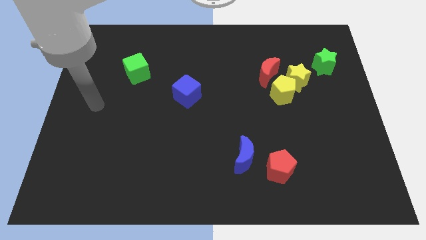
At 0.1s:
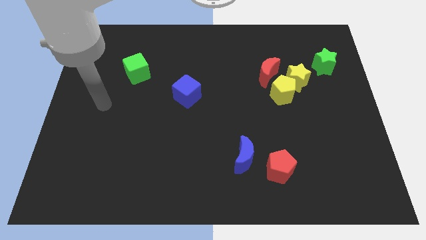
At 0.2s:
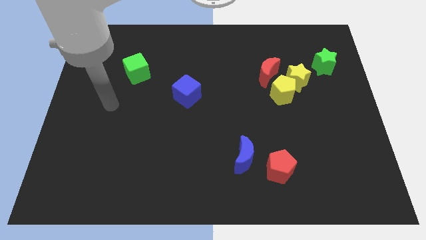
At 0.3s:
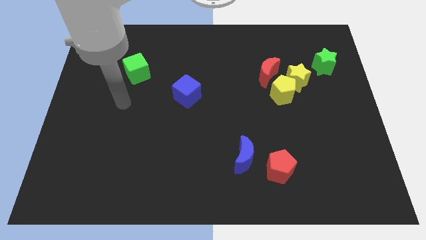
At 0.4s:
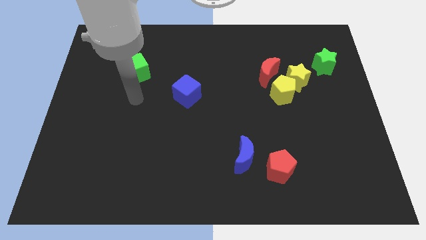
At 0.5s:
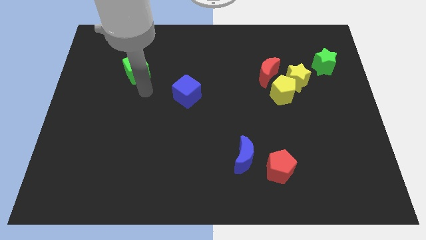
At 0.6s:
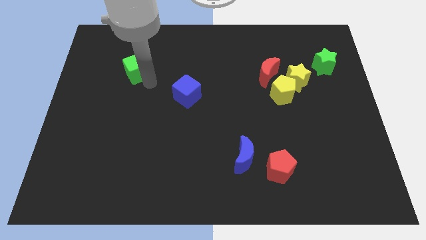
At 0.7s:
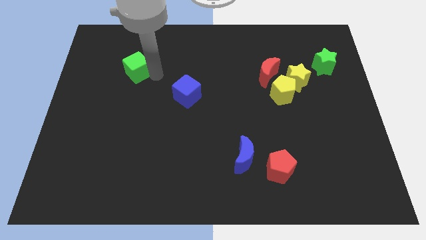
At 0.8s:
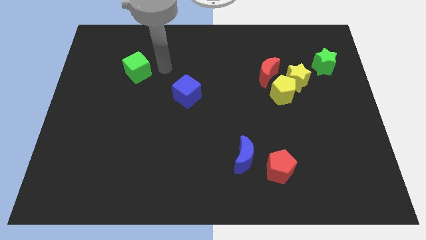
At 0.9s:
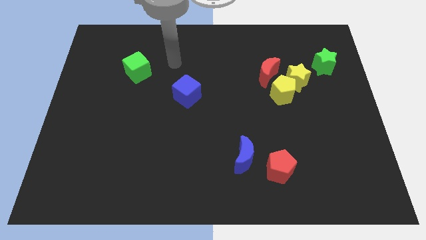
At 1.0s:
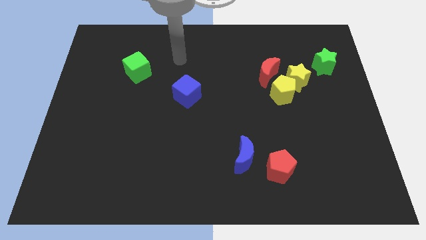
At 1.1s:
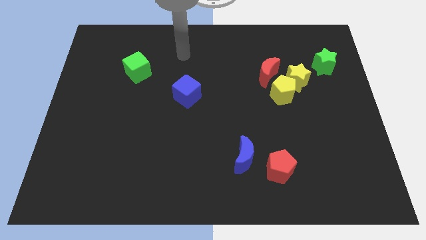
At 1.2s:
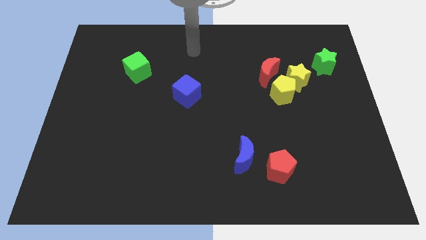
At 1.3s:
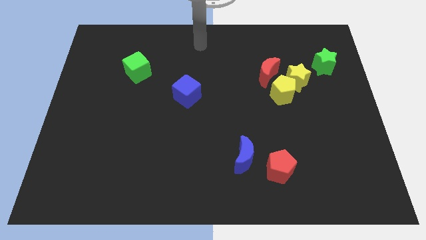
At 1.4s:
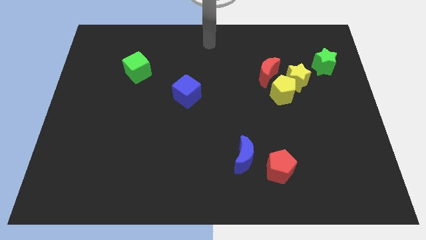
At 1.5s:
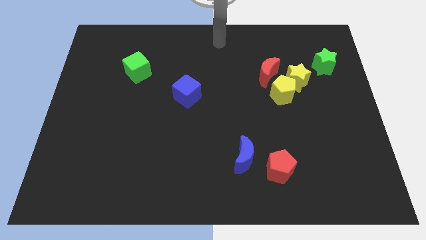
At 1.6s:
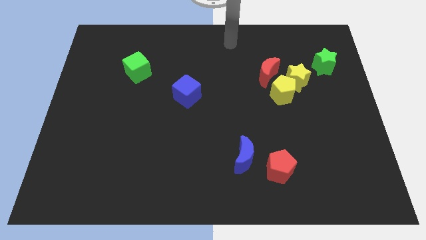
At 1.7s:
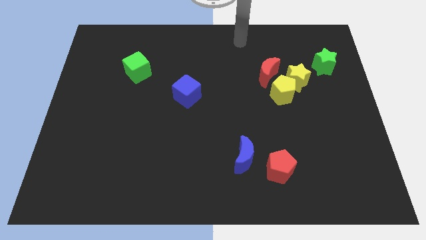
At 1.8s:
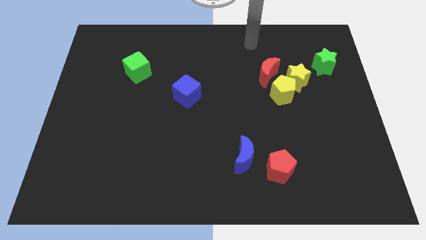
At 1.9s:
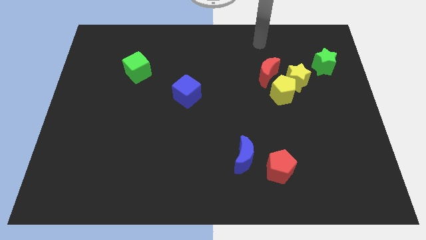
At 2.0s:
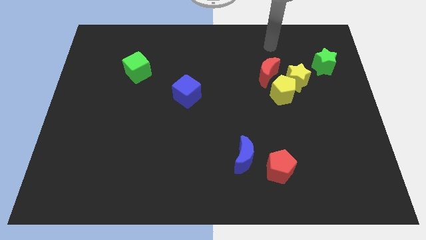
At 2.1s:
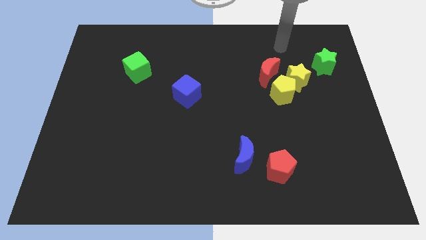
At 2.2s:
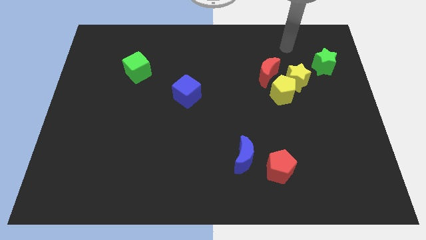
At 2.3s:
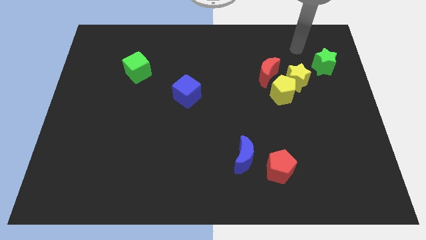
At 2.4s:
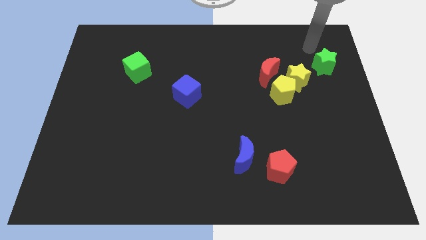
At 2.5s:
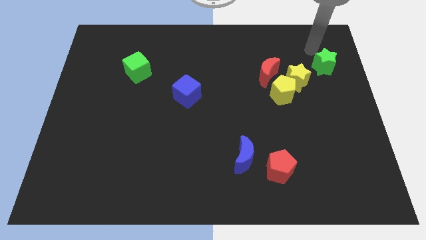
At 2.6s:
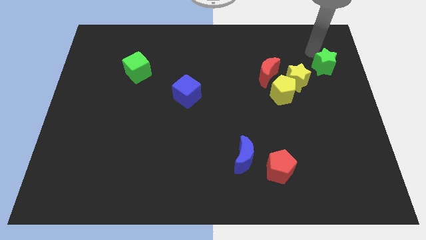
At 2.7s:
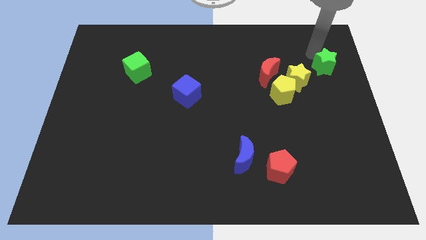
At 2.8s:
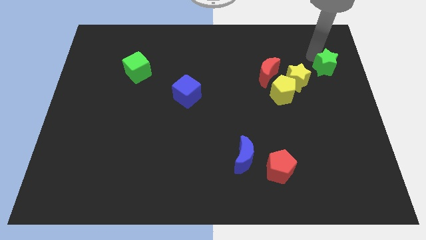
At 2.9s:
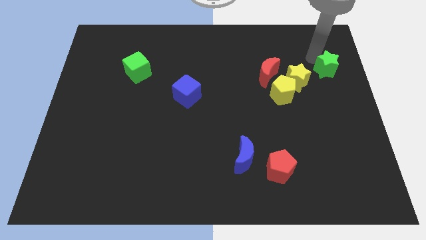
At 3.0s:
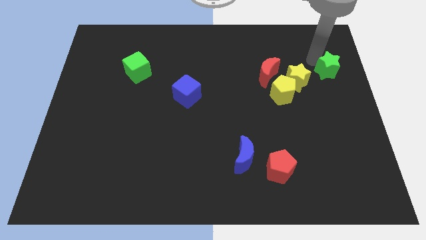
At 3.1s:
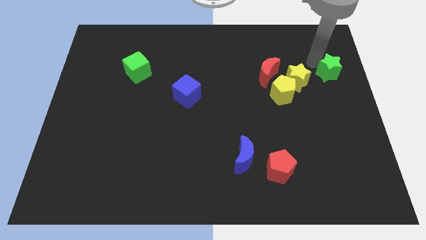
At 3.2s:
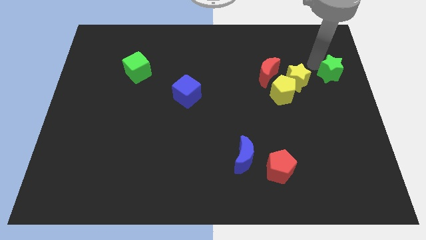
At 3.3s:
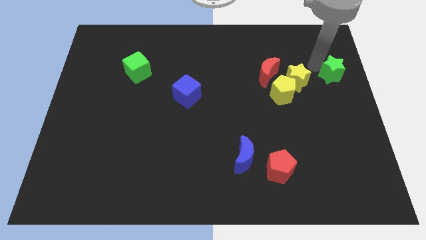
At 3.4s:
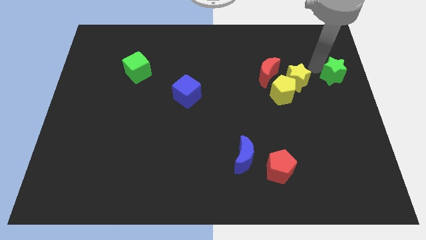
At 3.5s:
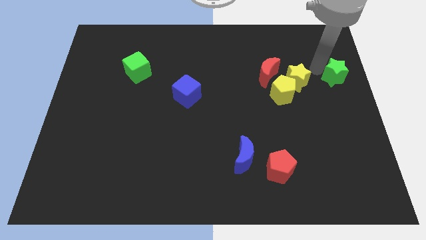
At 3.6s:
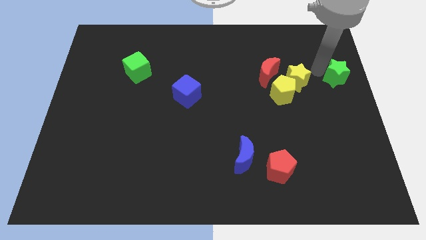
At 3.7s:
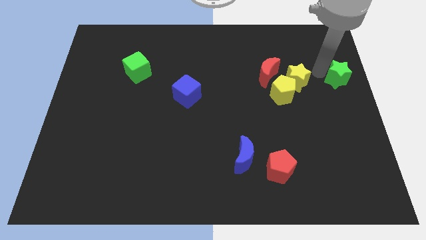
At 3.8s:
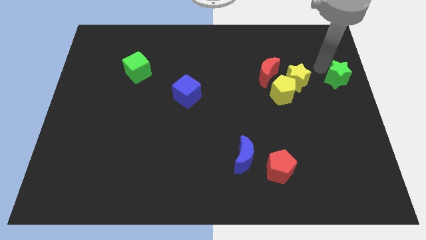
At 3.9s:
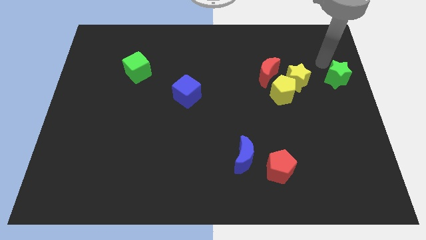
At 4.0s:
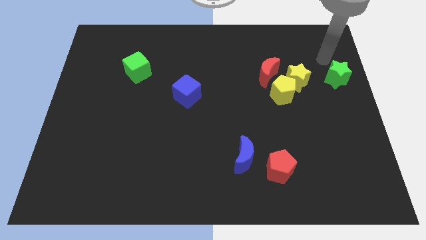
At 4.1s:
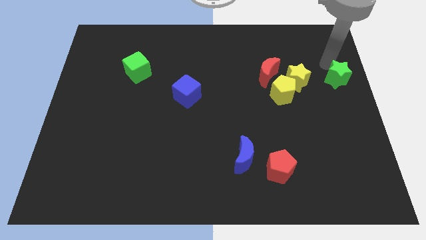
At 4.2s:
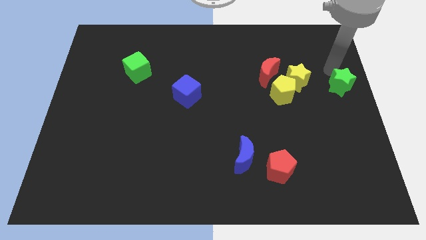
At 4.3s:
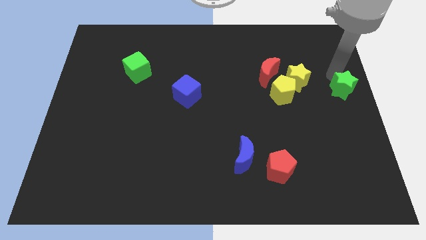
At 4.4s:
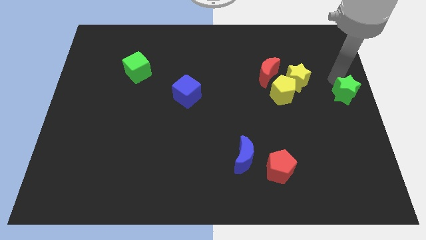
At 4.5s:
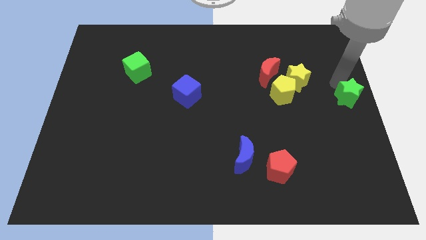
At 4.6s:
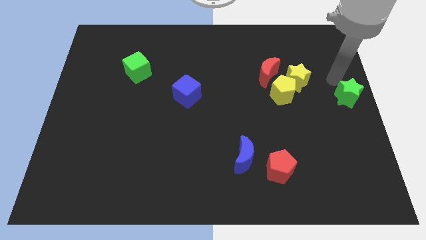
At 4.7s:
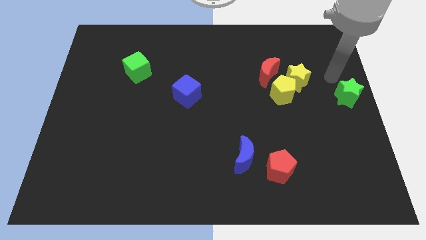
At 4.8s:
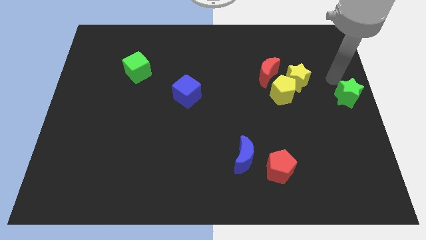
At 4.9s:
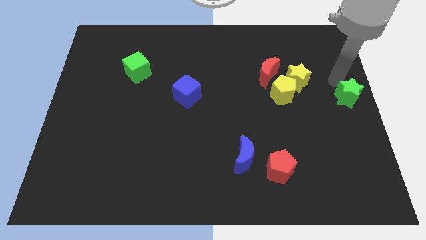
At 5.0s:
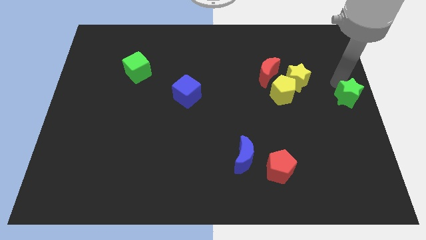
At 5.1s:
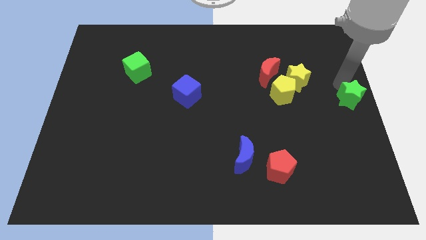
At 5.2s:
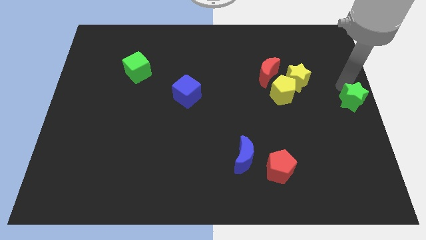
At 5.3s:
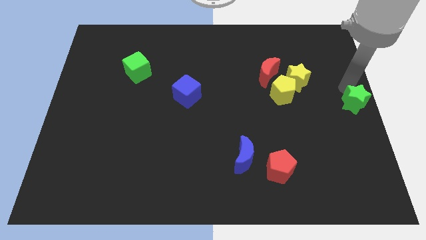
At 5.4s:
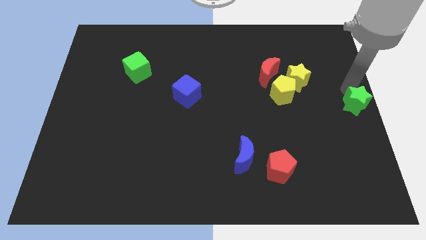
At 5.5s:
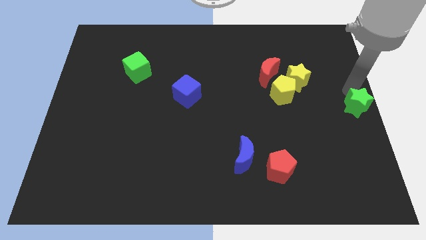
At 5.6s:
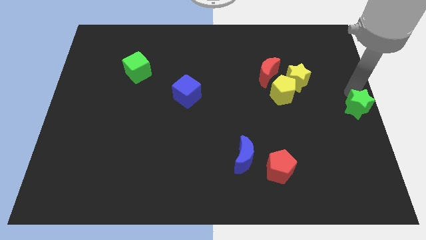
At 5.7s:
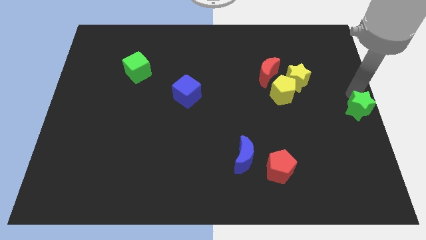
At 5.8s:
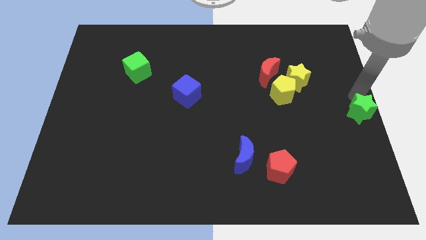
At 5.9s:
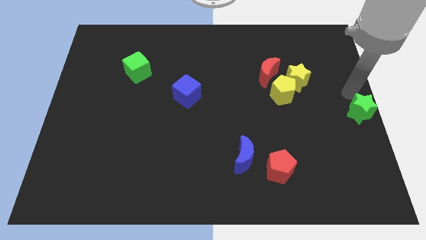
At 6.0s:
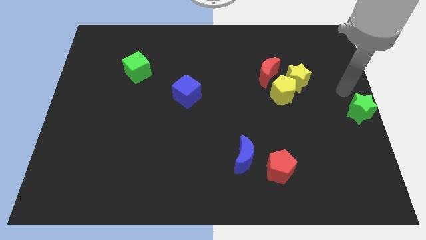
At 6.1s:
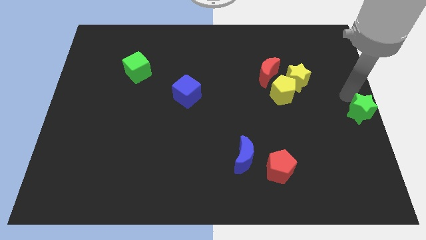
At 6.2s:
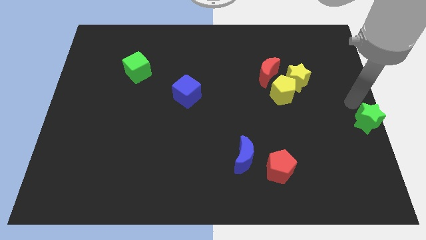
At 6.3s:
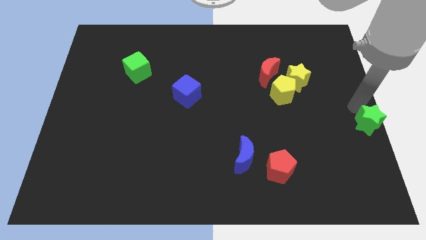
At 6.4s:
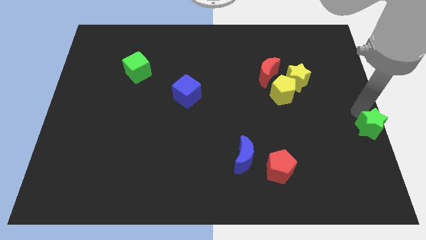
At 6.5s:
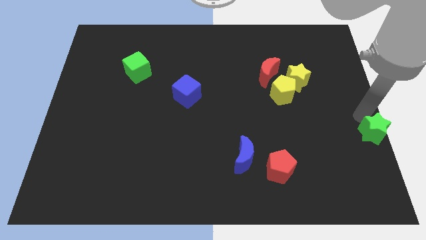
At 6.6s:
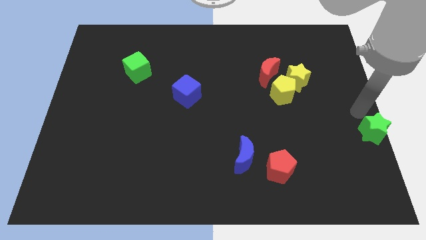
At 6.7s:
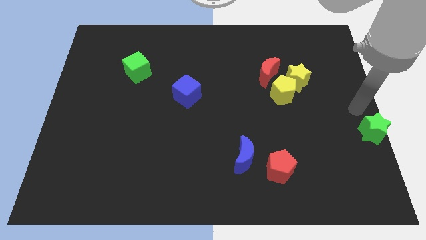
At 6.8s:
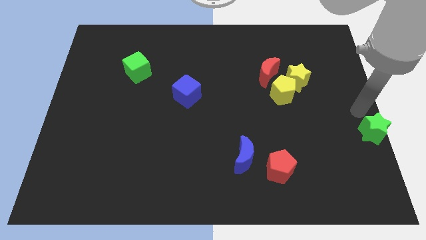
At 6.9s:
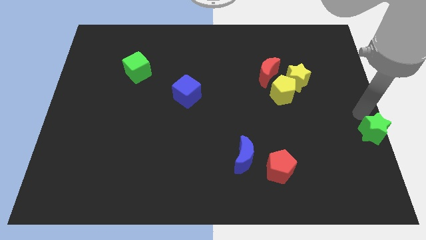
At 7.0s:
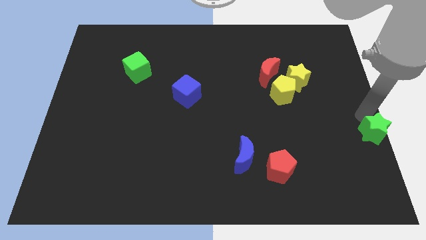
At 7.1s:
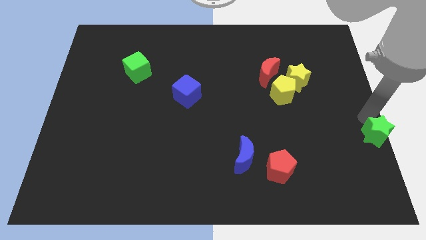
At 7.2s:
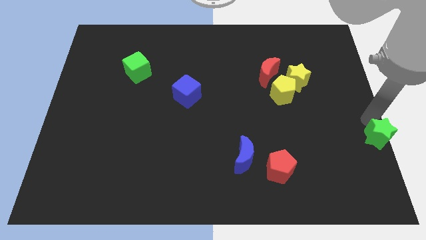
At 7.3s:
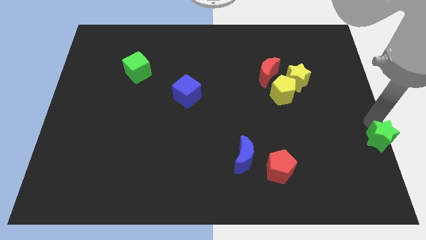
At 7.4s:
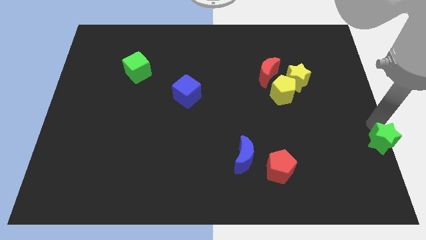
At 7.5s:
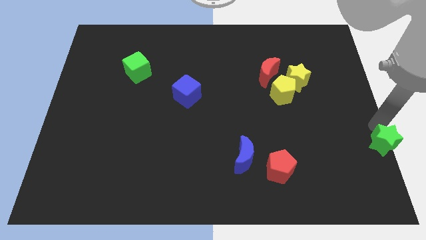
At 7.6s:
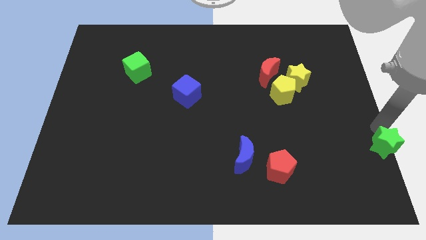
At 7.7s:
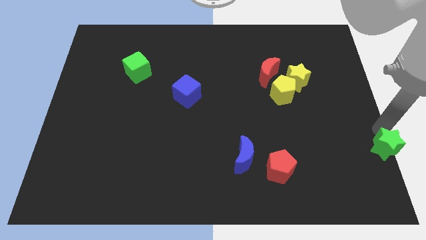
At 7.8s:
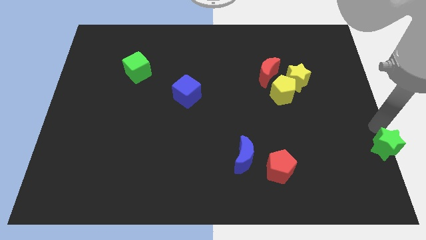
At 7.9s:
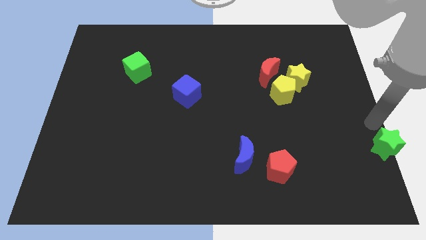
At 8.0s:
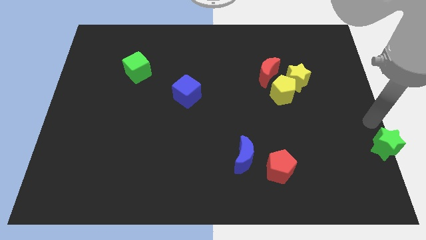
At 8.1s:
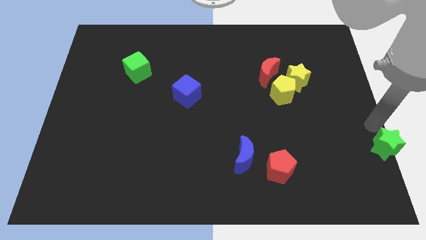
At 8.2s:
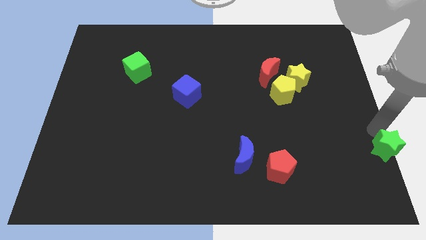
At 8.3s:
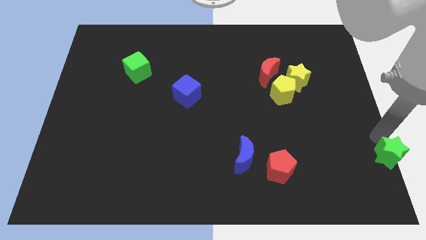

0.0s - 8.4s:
slide the green star to the bottom right of the board
